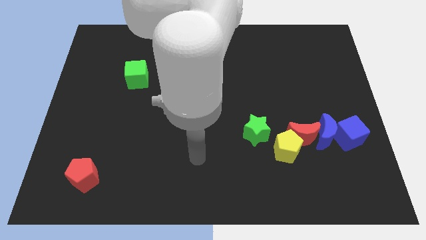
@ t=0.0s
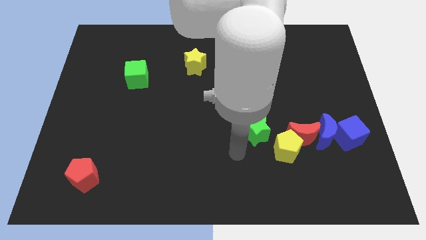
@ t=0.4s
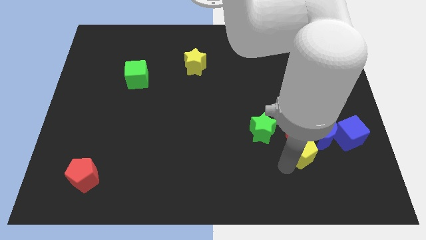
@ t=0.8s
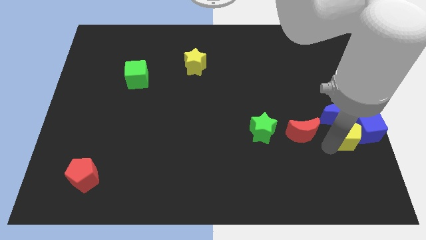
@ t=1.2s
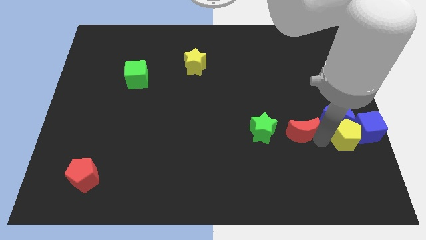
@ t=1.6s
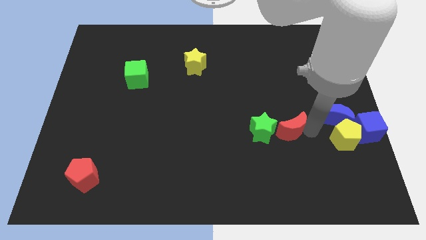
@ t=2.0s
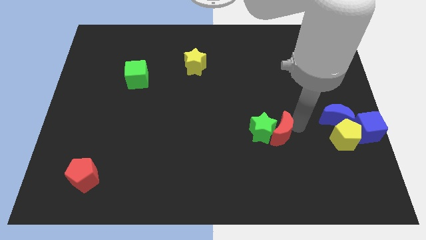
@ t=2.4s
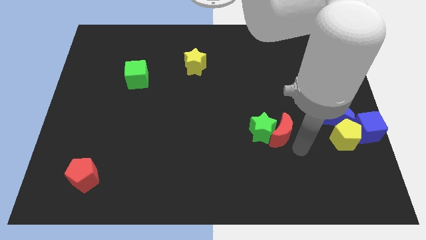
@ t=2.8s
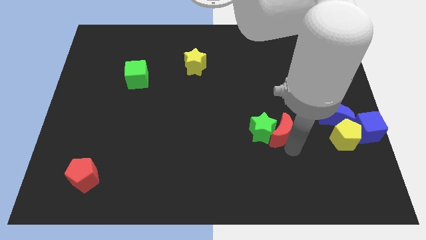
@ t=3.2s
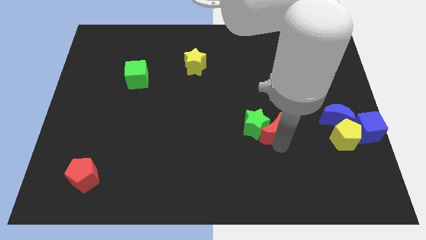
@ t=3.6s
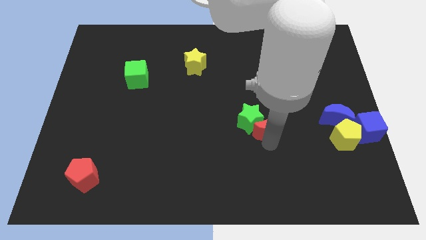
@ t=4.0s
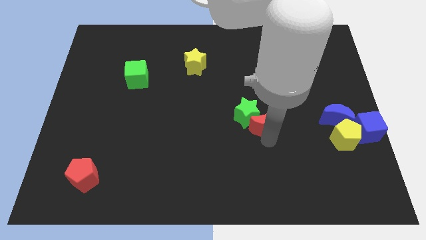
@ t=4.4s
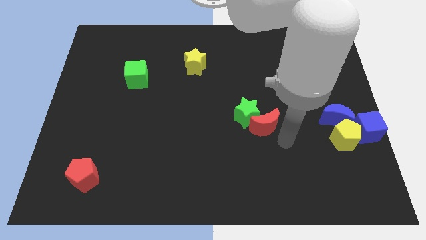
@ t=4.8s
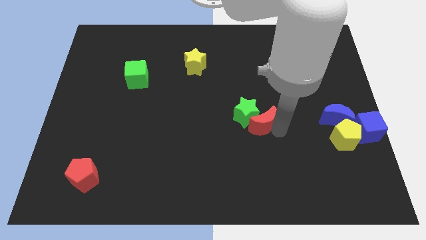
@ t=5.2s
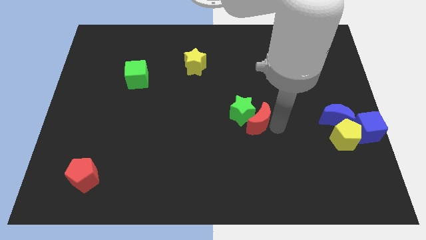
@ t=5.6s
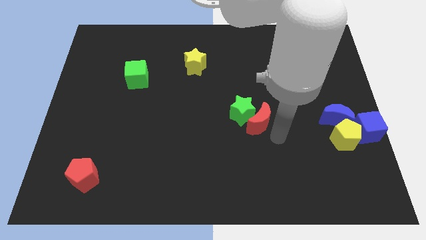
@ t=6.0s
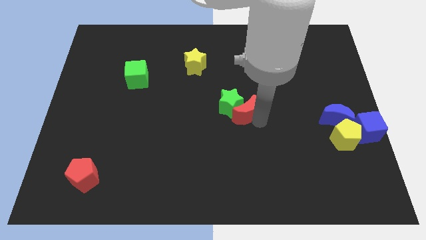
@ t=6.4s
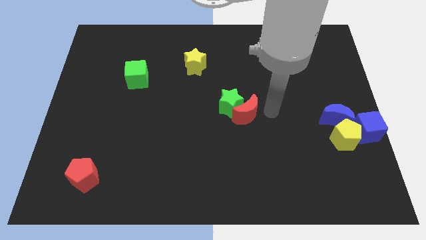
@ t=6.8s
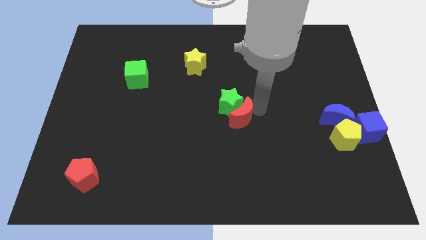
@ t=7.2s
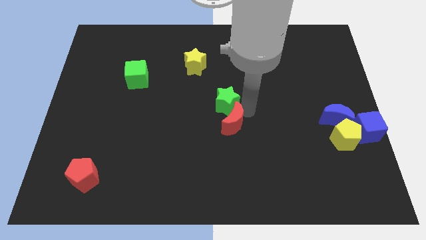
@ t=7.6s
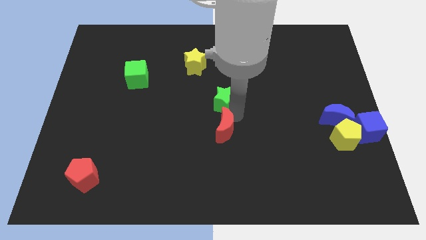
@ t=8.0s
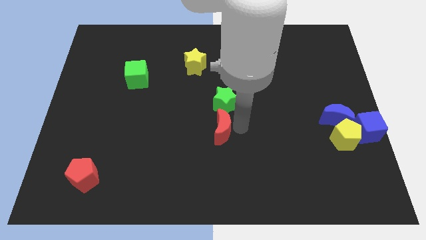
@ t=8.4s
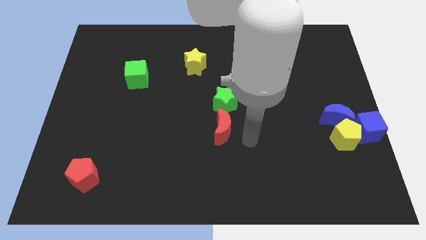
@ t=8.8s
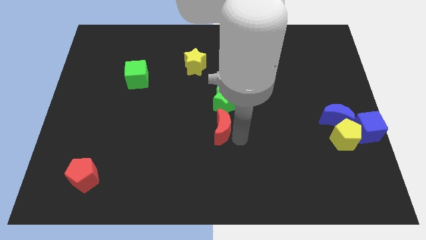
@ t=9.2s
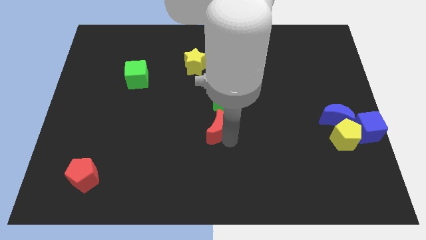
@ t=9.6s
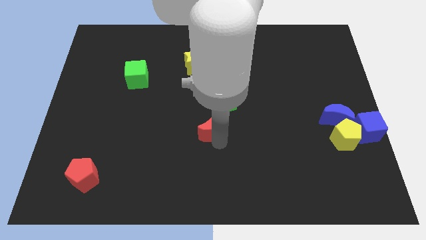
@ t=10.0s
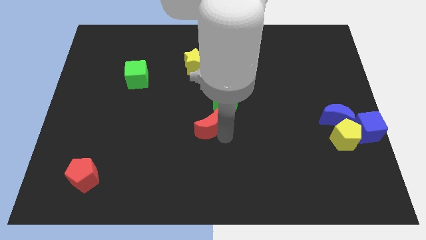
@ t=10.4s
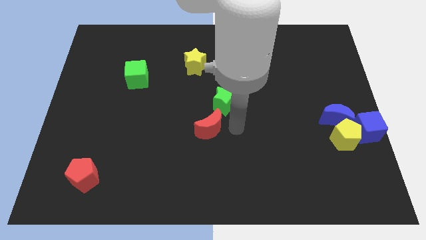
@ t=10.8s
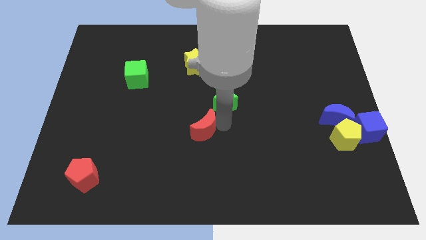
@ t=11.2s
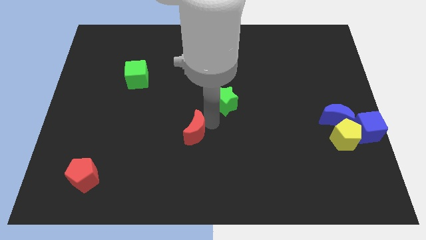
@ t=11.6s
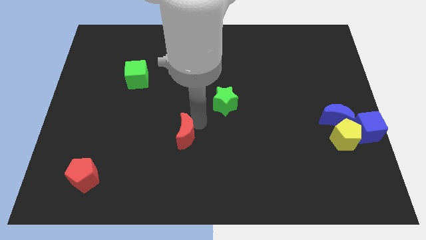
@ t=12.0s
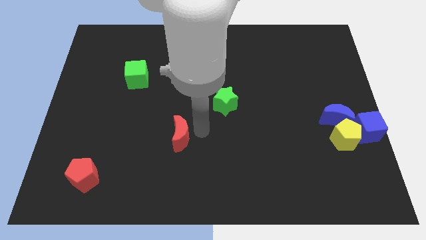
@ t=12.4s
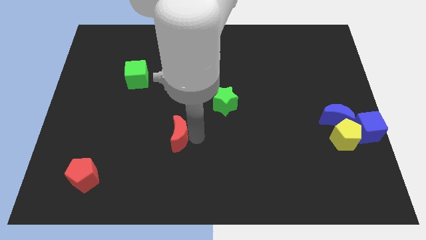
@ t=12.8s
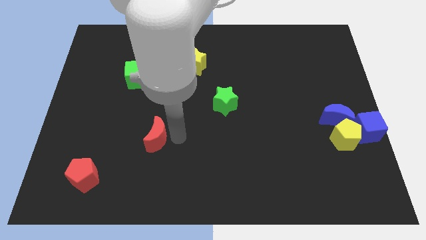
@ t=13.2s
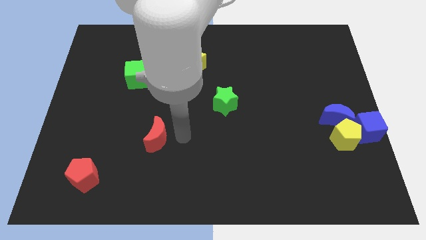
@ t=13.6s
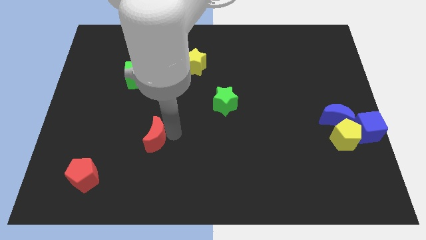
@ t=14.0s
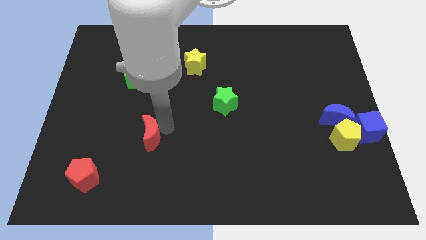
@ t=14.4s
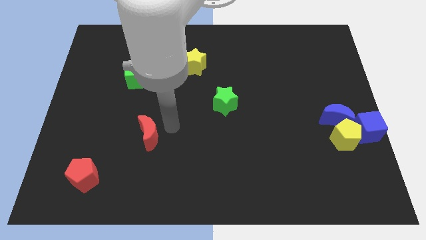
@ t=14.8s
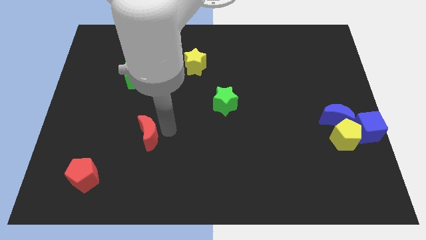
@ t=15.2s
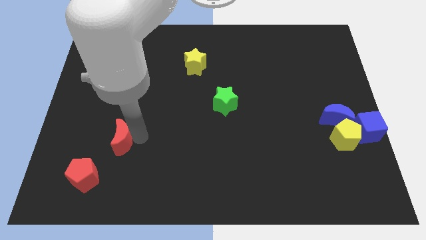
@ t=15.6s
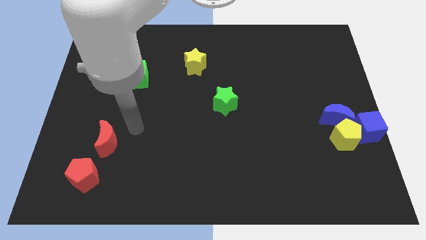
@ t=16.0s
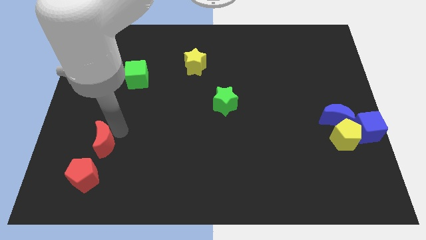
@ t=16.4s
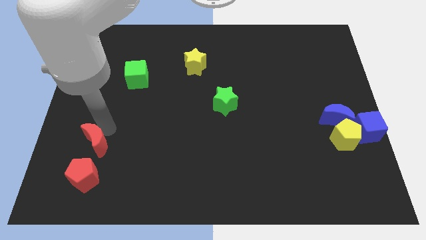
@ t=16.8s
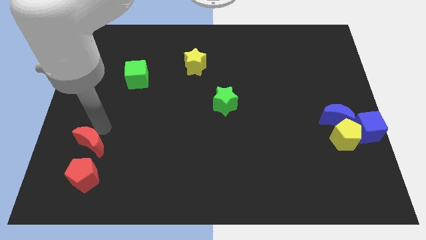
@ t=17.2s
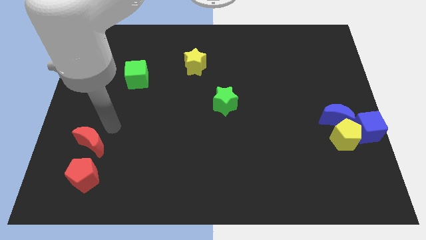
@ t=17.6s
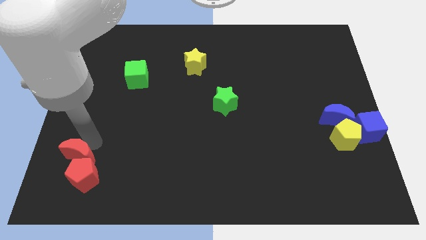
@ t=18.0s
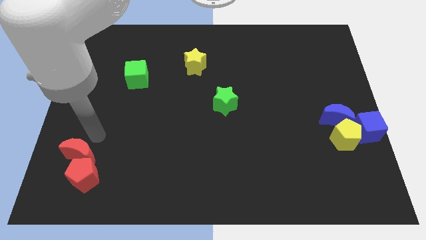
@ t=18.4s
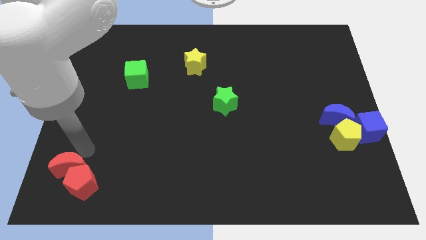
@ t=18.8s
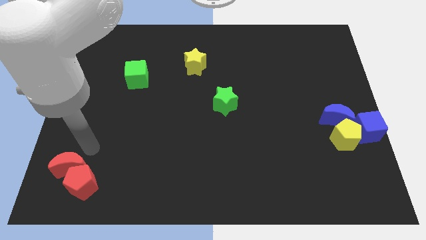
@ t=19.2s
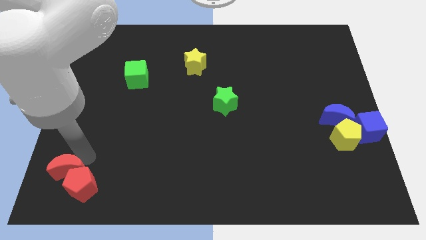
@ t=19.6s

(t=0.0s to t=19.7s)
move the red moon to the lower left corner

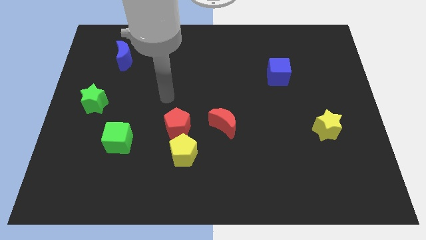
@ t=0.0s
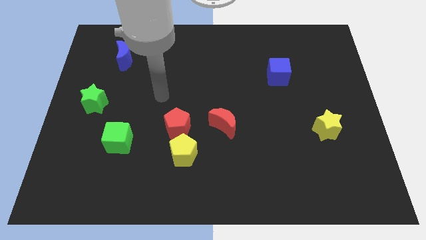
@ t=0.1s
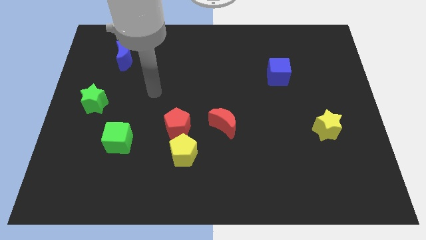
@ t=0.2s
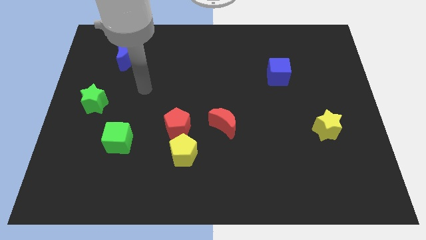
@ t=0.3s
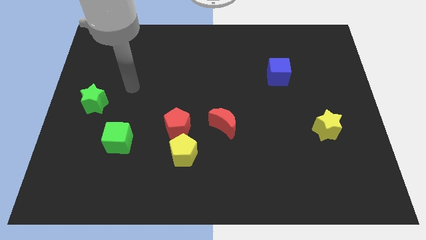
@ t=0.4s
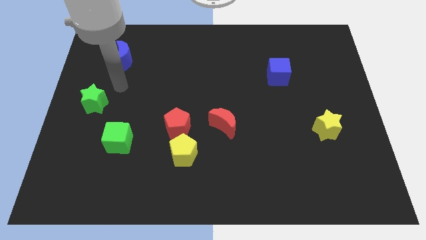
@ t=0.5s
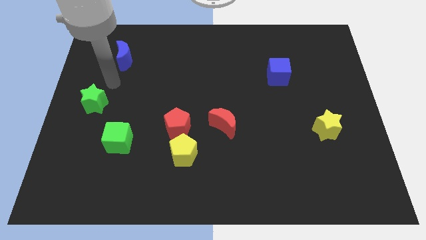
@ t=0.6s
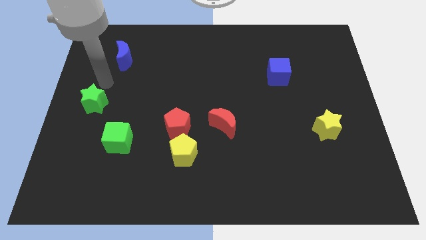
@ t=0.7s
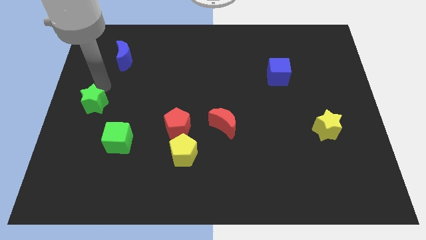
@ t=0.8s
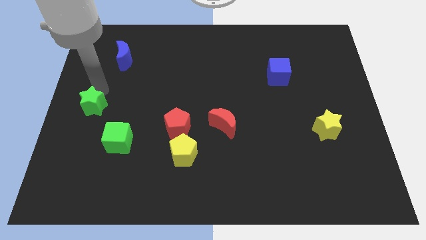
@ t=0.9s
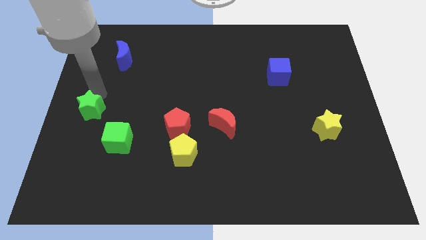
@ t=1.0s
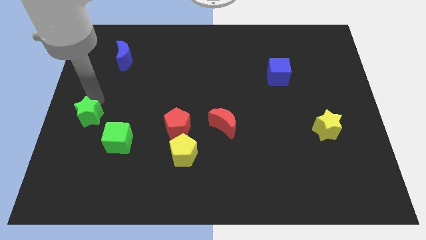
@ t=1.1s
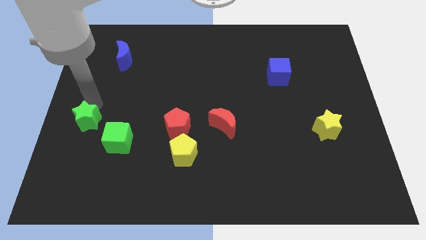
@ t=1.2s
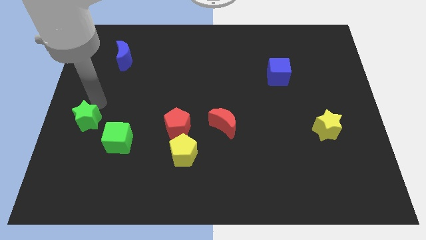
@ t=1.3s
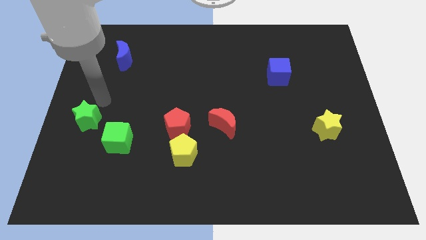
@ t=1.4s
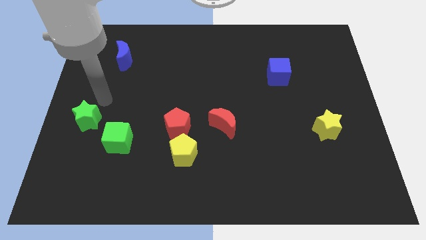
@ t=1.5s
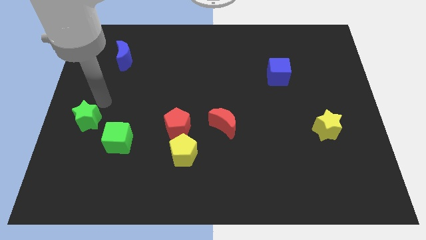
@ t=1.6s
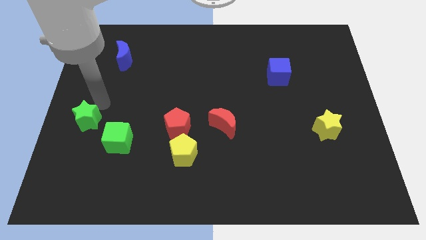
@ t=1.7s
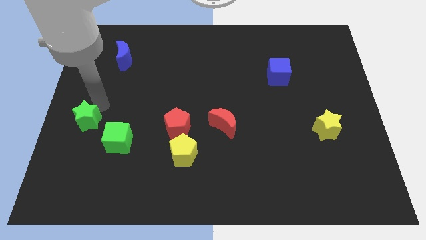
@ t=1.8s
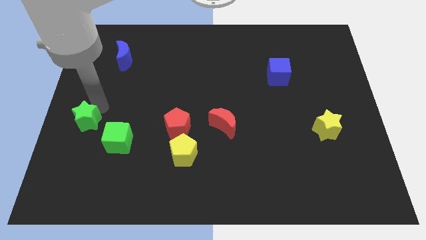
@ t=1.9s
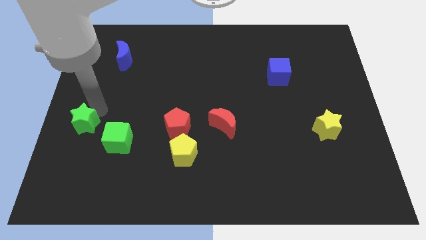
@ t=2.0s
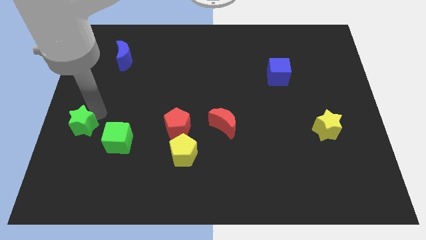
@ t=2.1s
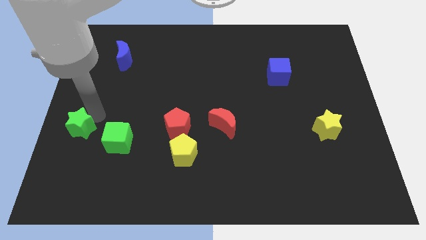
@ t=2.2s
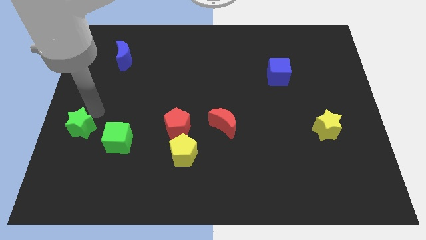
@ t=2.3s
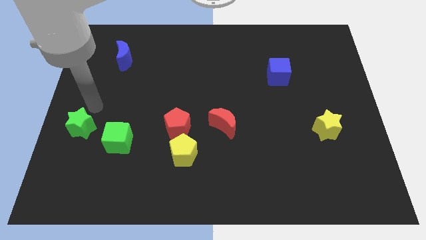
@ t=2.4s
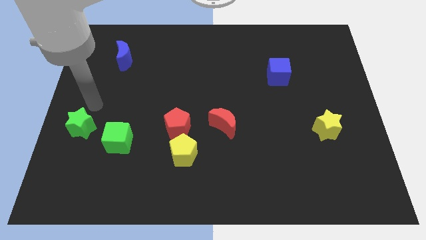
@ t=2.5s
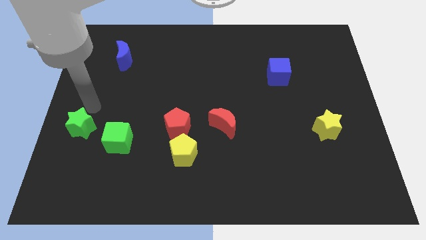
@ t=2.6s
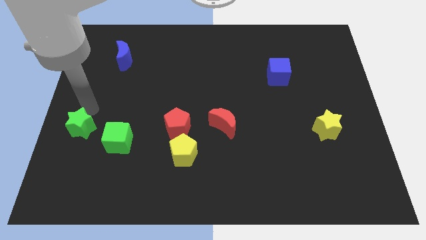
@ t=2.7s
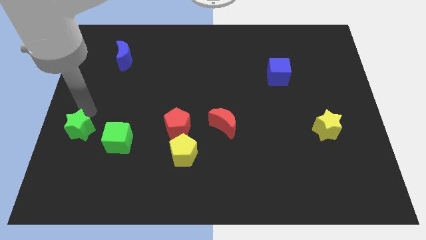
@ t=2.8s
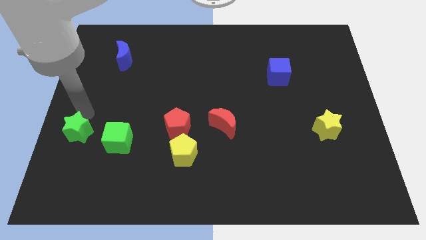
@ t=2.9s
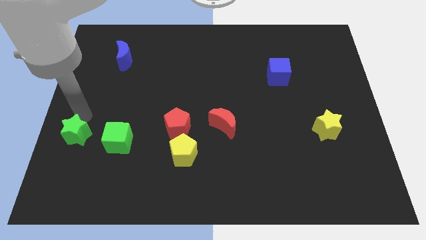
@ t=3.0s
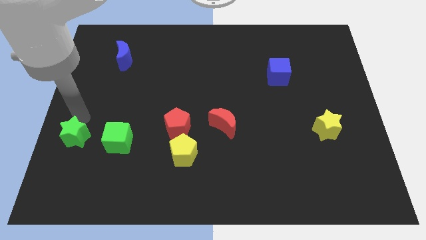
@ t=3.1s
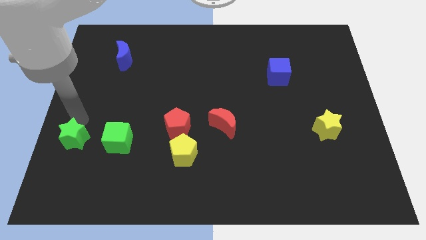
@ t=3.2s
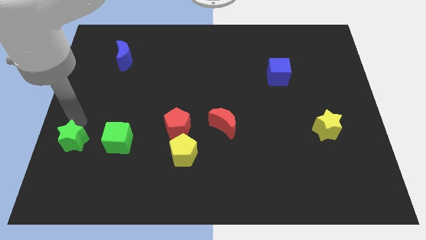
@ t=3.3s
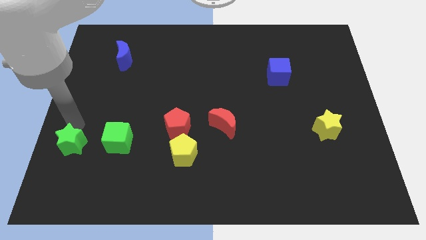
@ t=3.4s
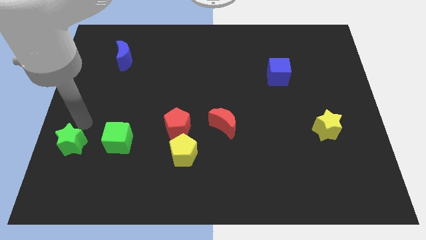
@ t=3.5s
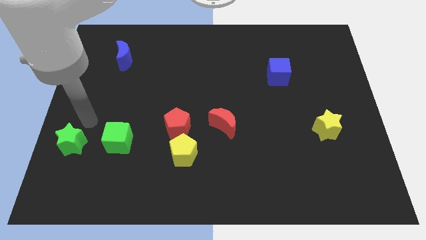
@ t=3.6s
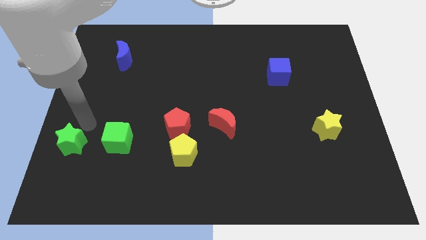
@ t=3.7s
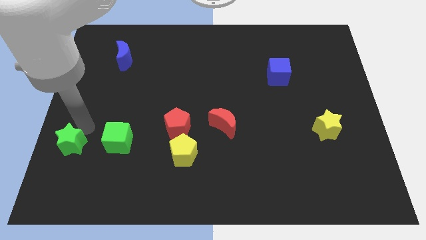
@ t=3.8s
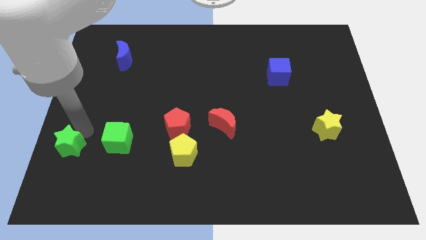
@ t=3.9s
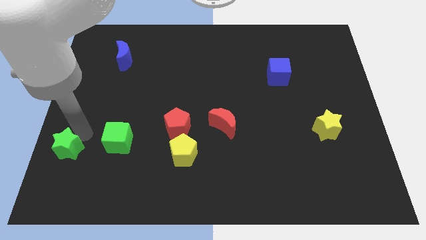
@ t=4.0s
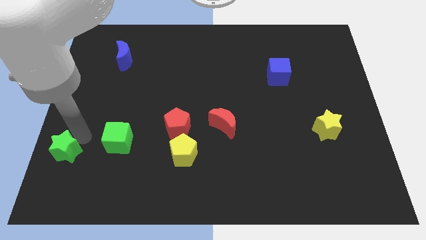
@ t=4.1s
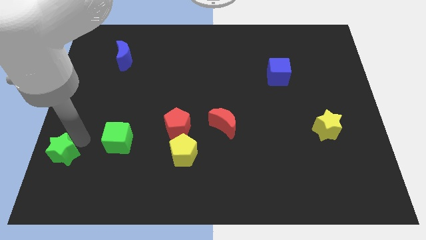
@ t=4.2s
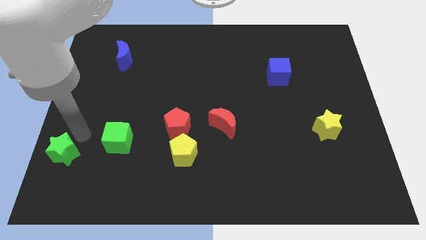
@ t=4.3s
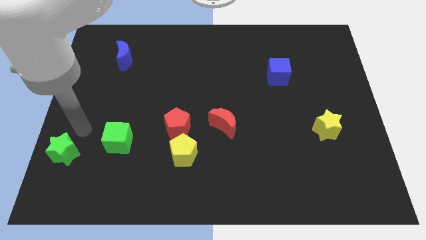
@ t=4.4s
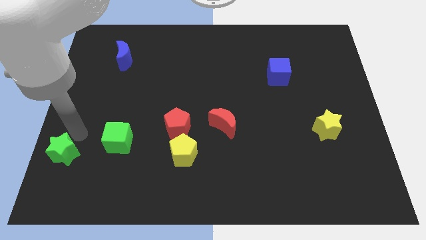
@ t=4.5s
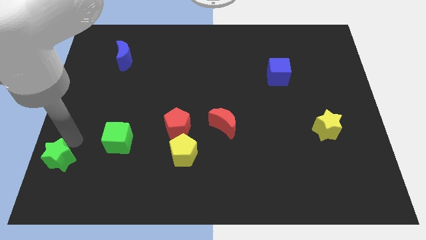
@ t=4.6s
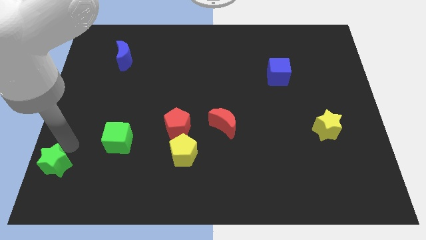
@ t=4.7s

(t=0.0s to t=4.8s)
slide the green star to the bottom left
